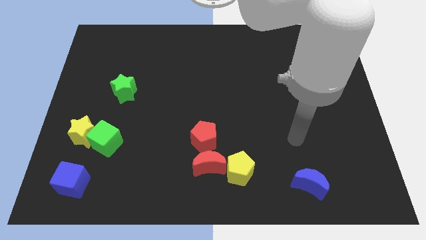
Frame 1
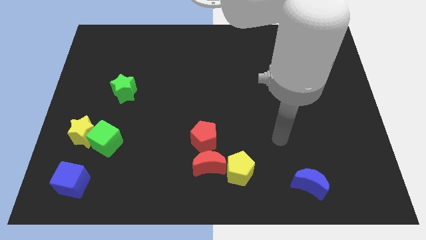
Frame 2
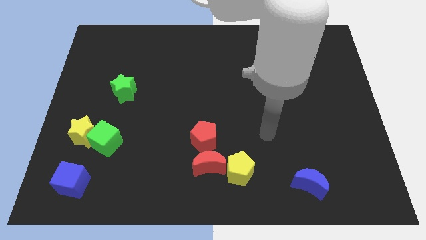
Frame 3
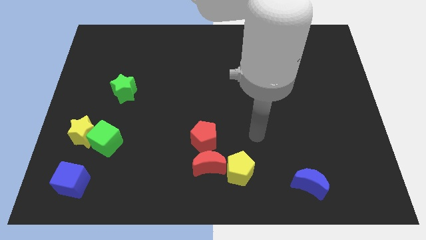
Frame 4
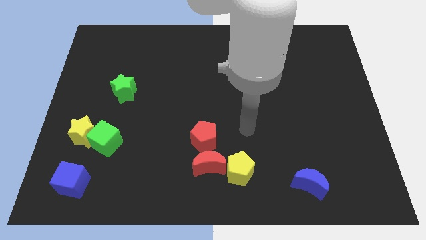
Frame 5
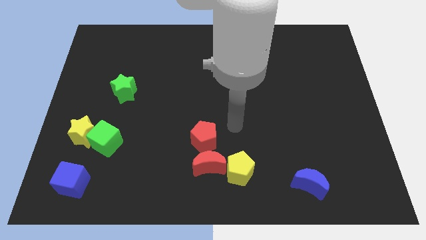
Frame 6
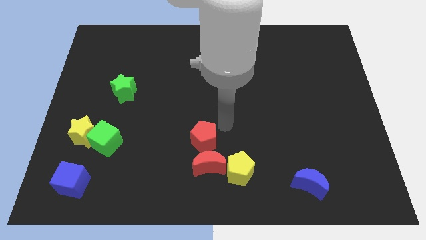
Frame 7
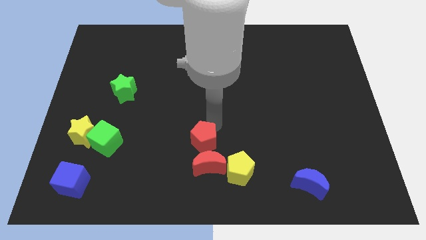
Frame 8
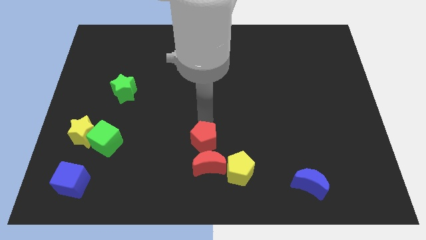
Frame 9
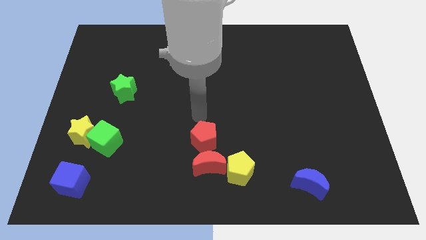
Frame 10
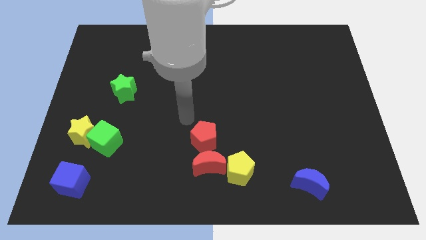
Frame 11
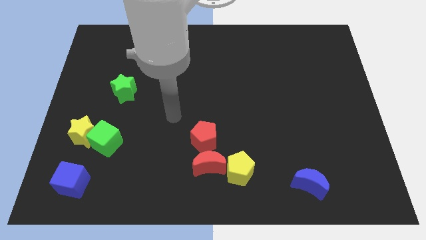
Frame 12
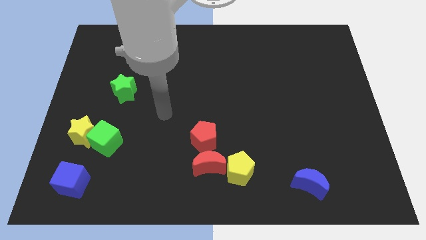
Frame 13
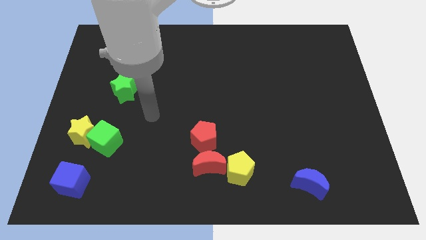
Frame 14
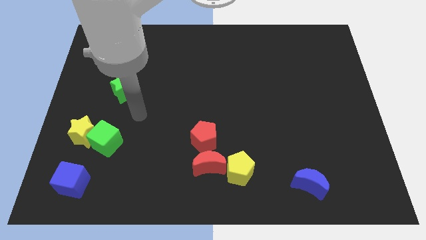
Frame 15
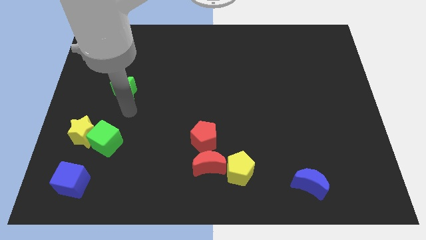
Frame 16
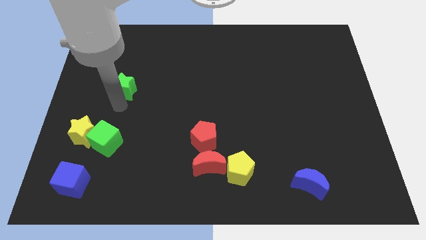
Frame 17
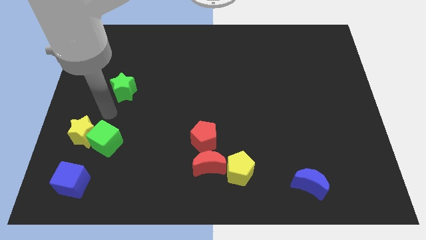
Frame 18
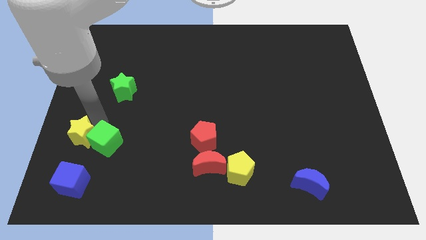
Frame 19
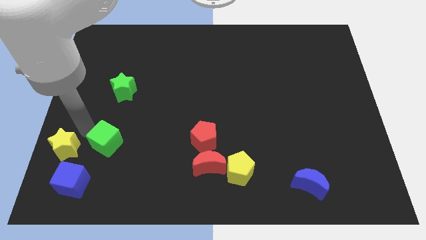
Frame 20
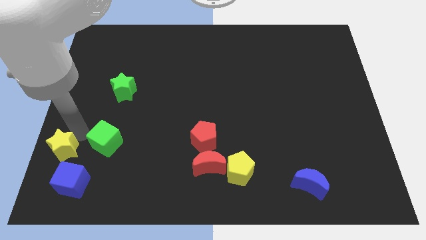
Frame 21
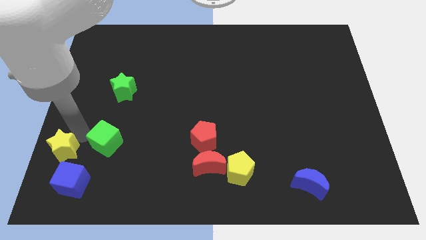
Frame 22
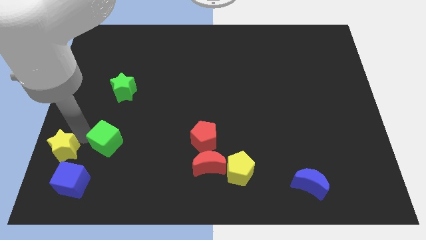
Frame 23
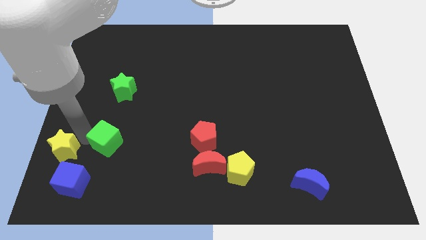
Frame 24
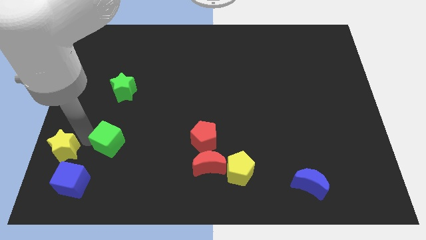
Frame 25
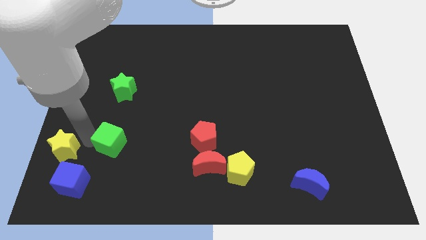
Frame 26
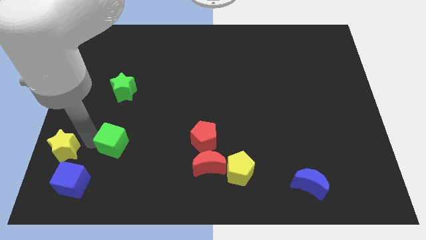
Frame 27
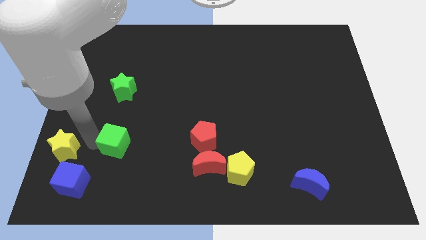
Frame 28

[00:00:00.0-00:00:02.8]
move the green cube away from the yellow star

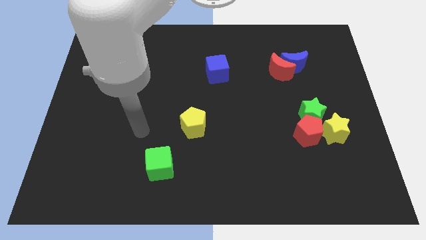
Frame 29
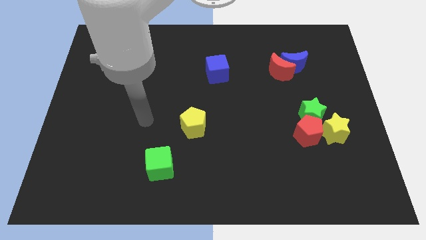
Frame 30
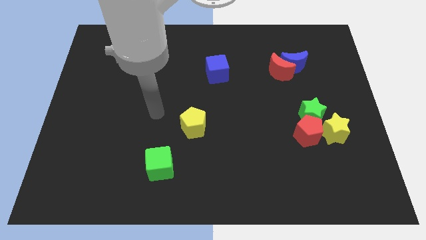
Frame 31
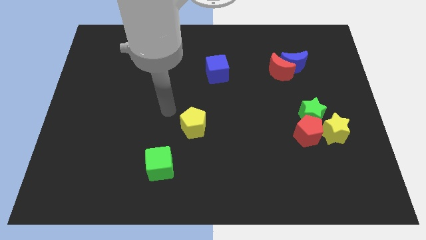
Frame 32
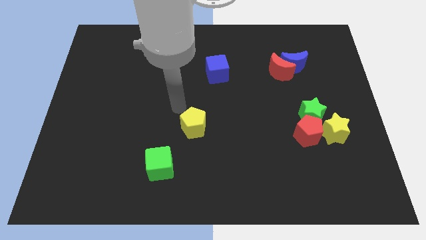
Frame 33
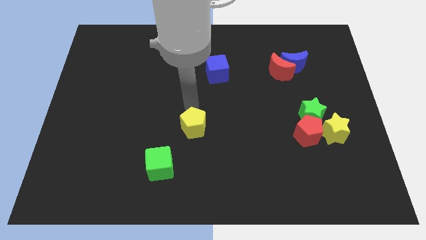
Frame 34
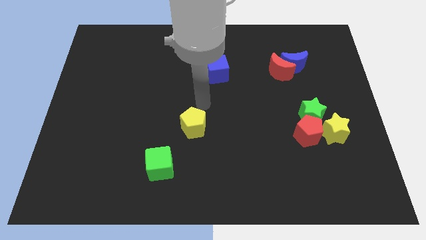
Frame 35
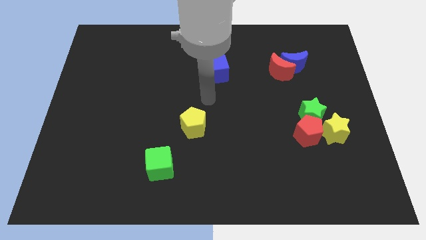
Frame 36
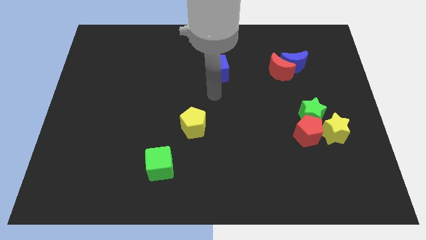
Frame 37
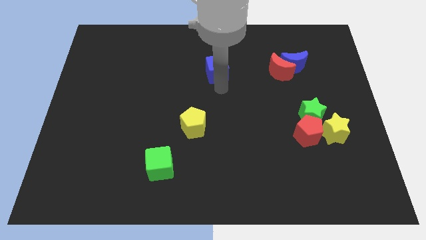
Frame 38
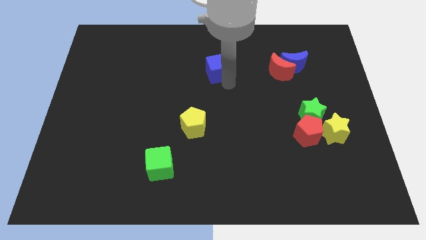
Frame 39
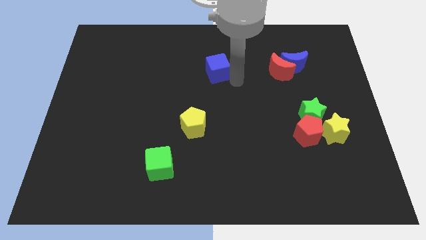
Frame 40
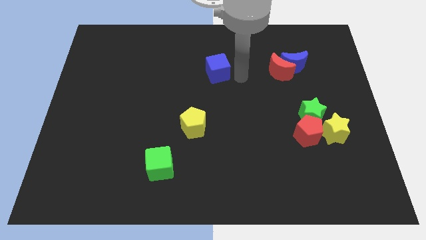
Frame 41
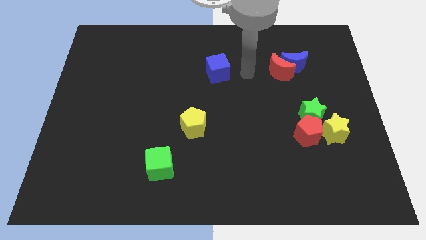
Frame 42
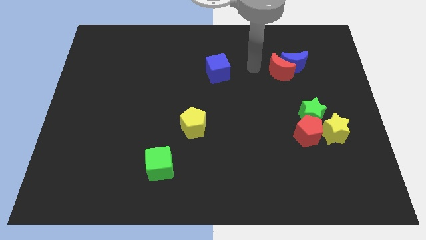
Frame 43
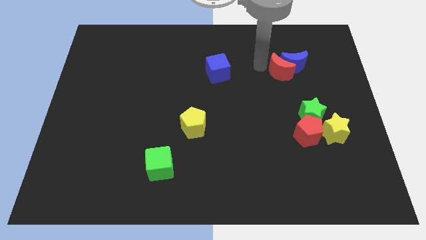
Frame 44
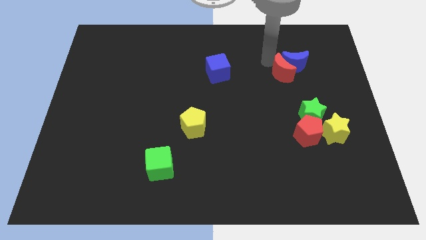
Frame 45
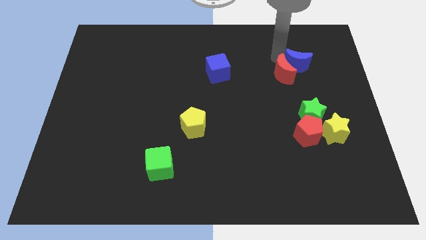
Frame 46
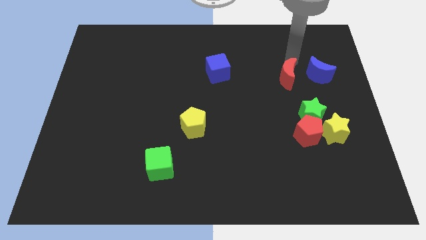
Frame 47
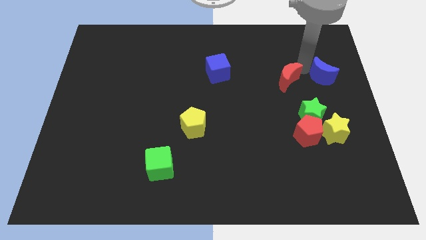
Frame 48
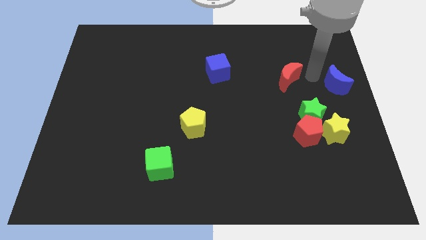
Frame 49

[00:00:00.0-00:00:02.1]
separate the red moon from the blue moon

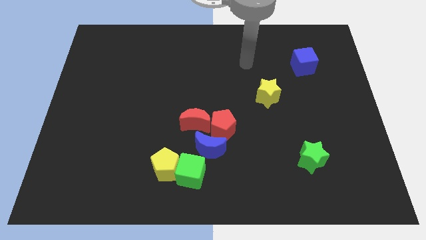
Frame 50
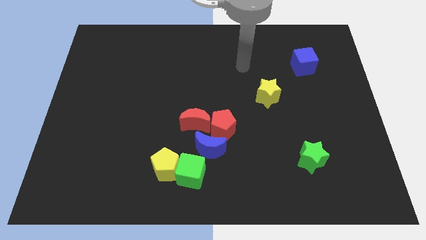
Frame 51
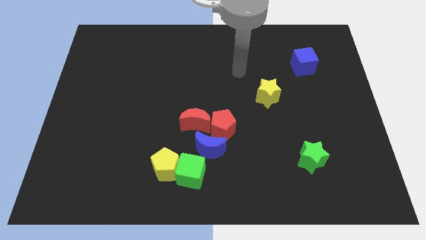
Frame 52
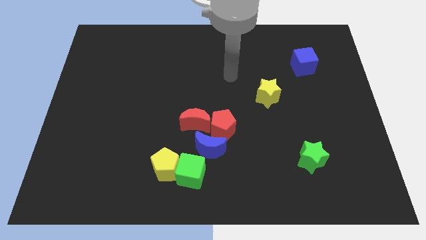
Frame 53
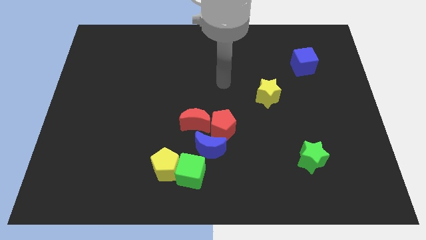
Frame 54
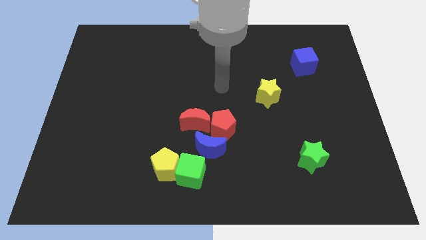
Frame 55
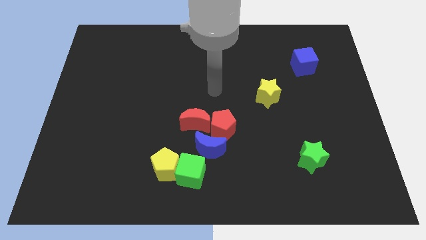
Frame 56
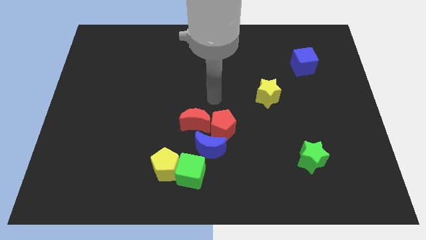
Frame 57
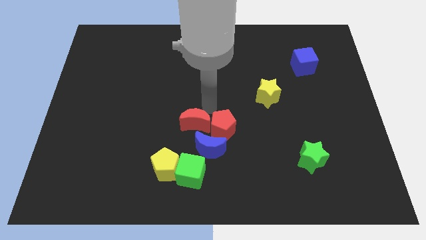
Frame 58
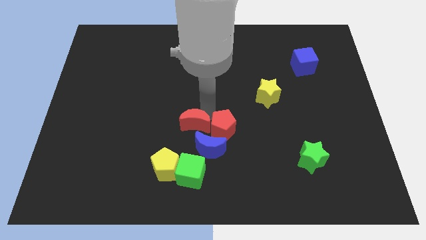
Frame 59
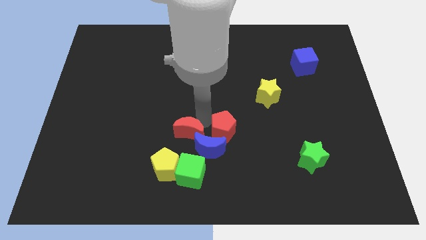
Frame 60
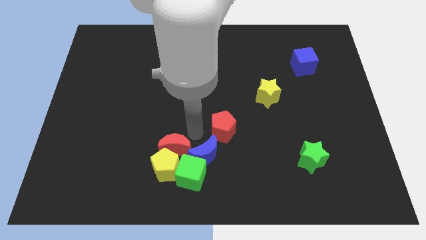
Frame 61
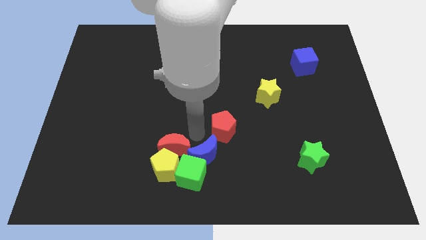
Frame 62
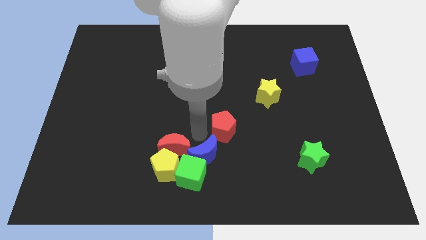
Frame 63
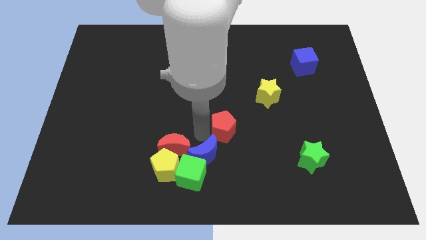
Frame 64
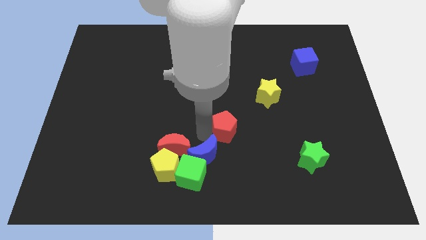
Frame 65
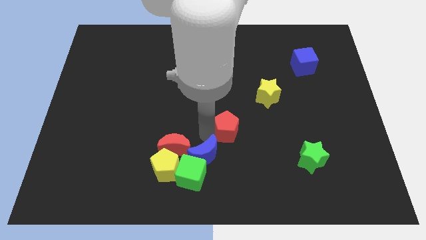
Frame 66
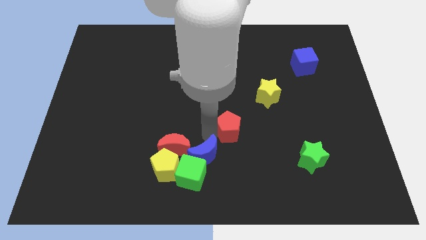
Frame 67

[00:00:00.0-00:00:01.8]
move the red pentagon away from the red moon and blue moon

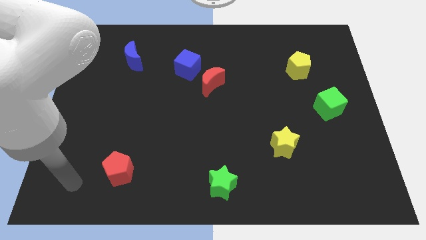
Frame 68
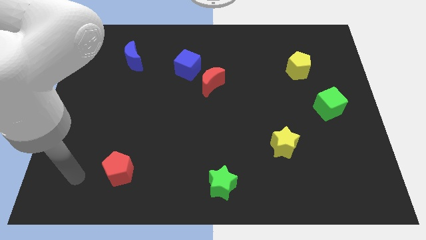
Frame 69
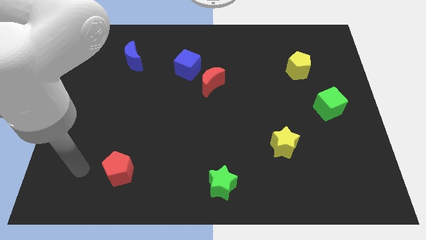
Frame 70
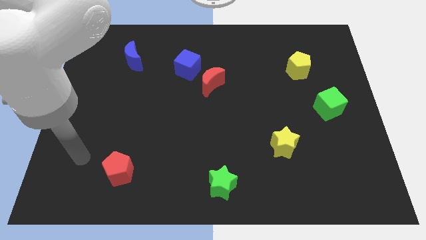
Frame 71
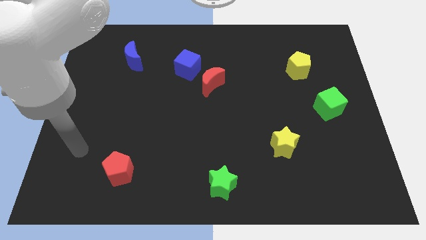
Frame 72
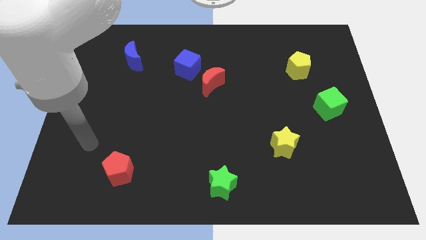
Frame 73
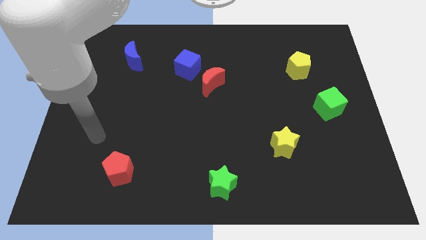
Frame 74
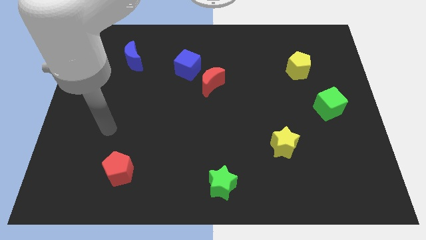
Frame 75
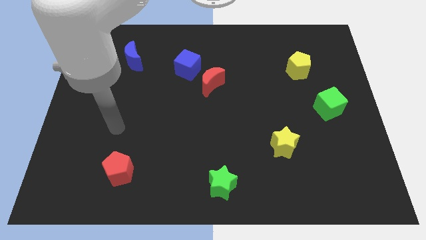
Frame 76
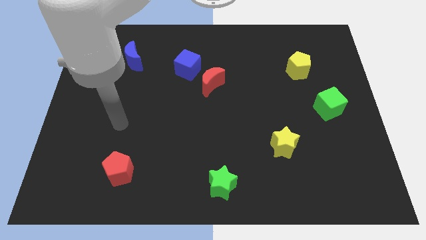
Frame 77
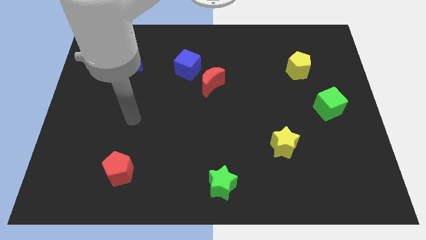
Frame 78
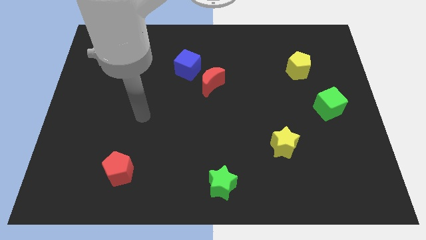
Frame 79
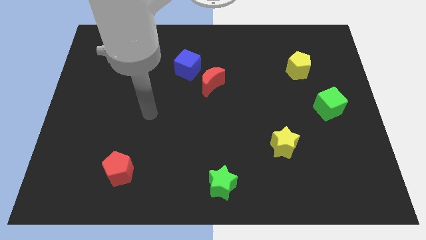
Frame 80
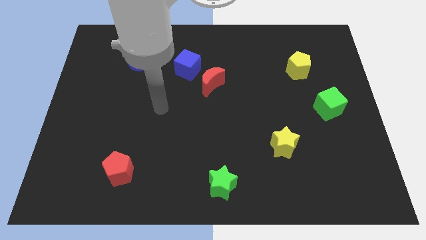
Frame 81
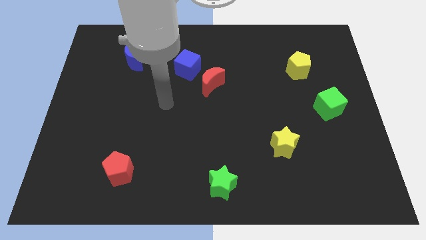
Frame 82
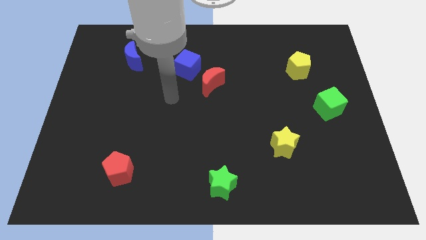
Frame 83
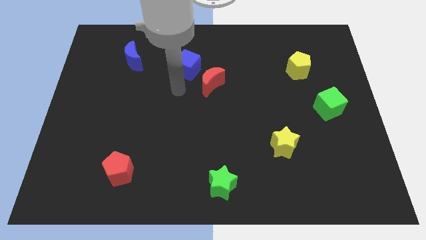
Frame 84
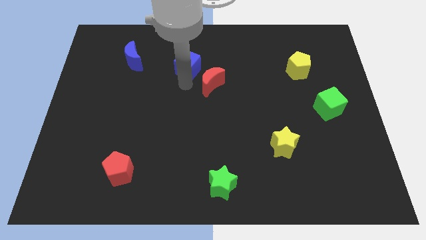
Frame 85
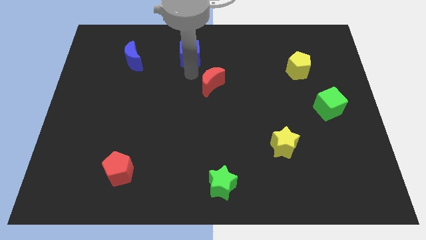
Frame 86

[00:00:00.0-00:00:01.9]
move the red moon away from the blue cube

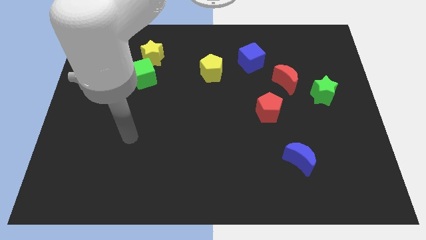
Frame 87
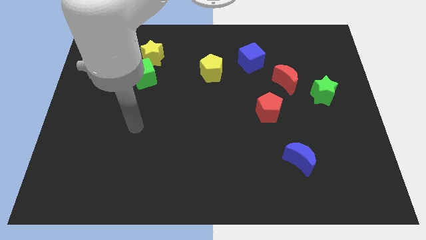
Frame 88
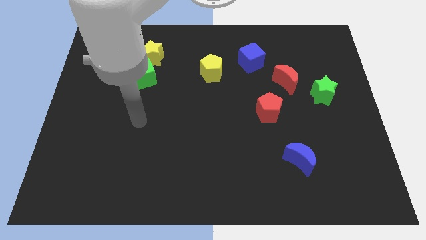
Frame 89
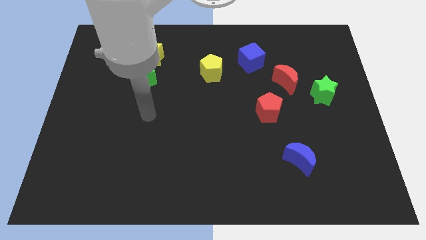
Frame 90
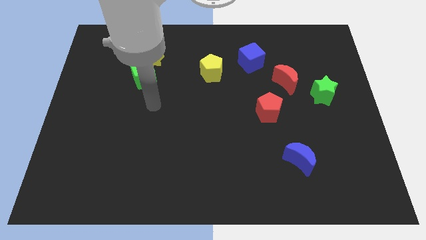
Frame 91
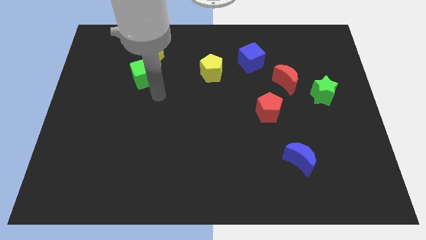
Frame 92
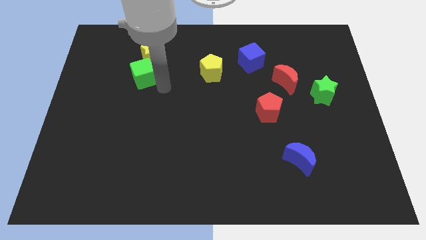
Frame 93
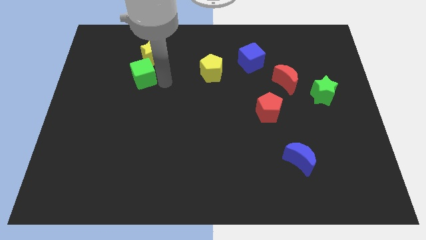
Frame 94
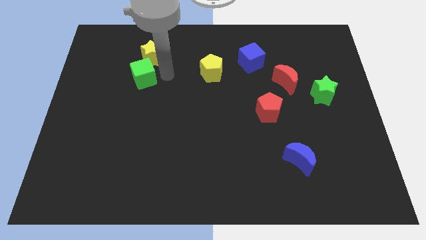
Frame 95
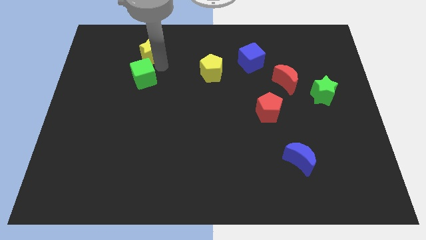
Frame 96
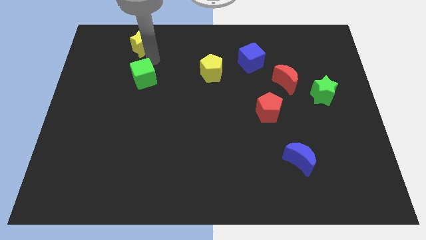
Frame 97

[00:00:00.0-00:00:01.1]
pull the green cube apart from the yellow star
